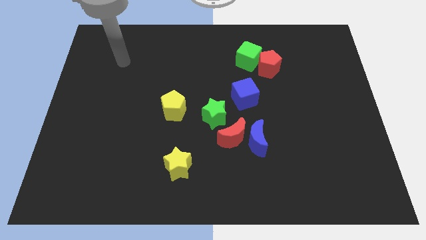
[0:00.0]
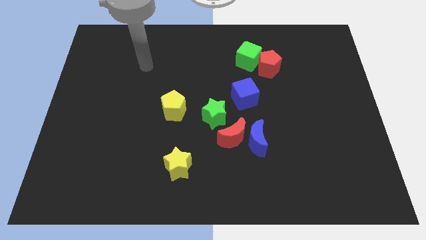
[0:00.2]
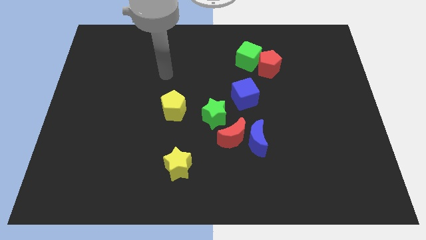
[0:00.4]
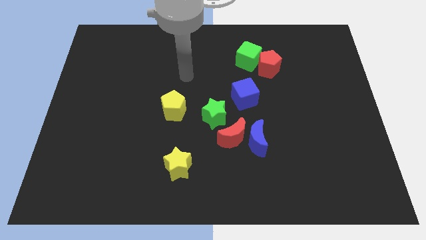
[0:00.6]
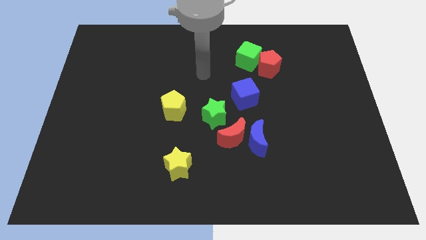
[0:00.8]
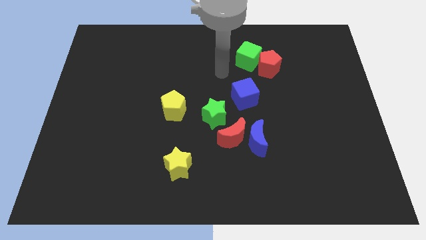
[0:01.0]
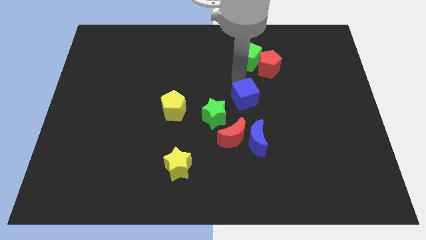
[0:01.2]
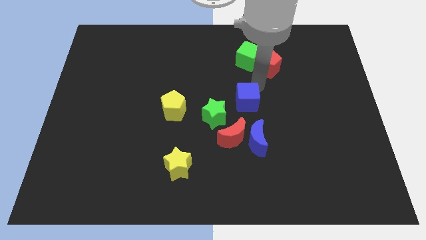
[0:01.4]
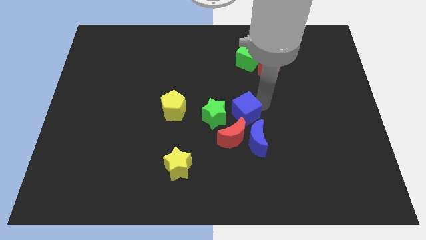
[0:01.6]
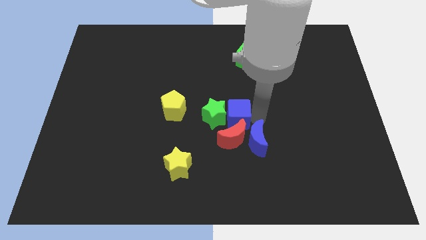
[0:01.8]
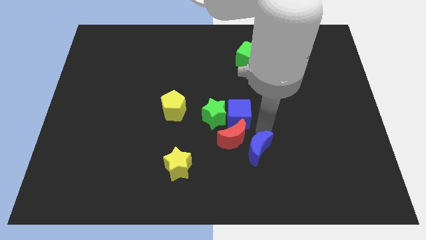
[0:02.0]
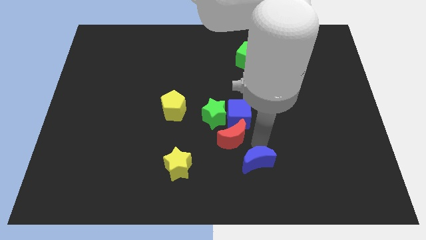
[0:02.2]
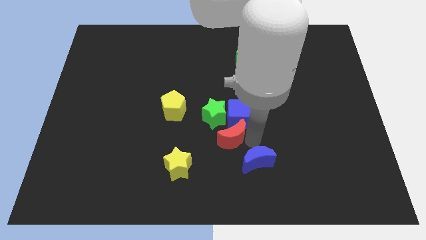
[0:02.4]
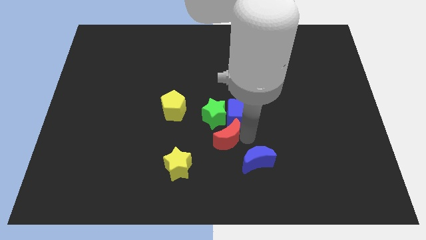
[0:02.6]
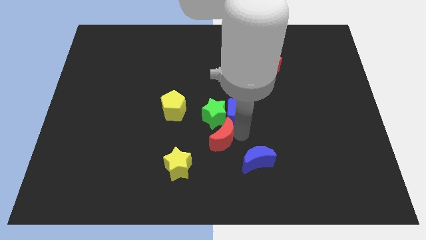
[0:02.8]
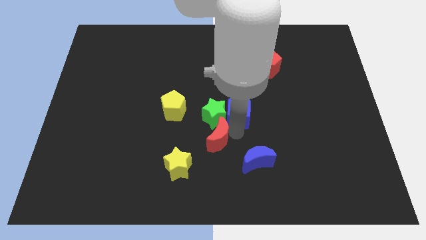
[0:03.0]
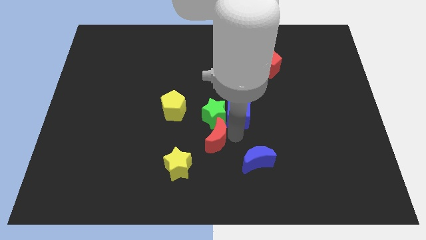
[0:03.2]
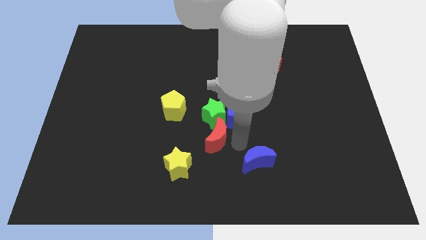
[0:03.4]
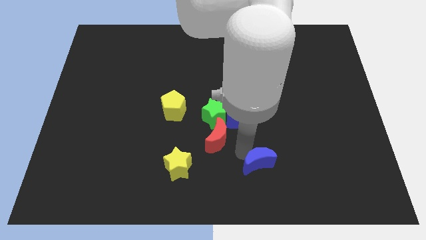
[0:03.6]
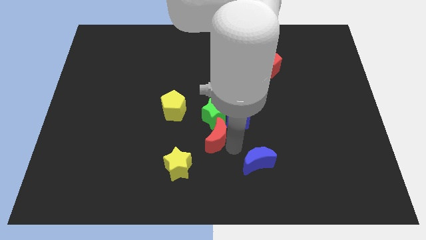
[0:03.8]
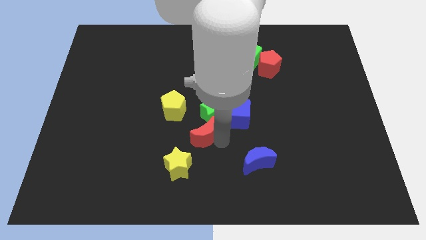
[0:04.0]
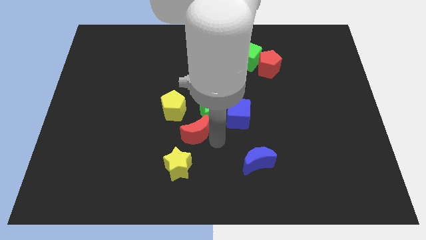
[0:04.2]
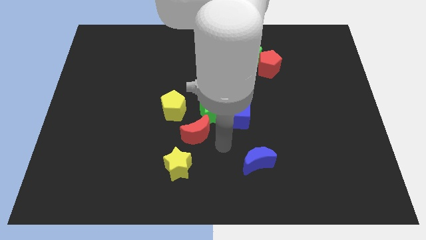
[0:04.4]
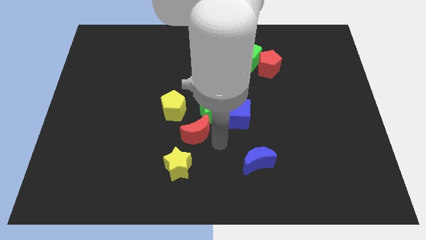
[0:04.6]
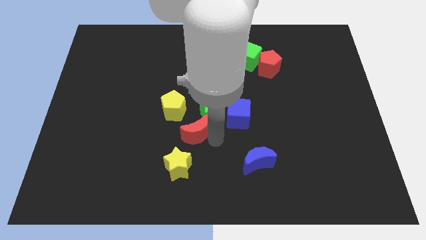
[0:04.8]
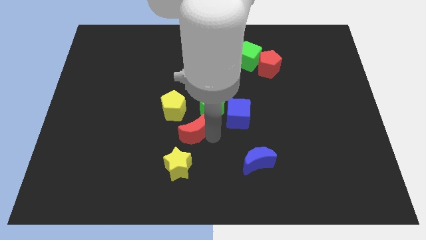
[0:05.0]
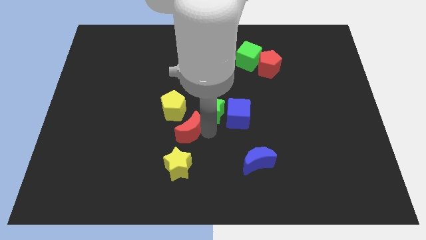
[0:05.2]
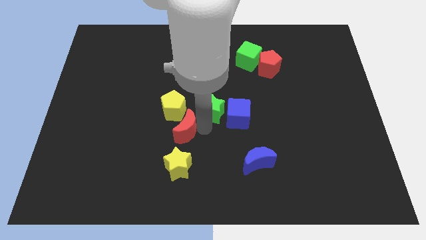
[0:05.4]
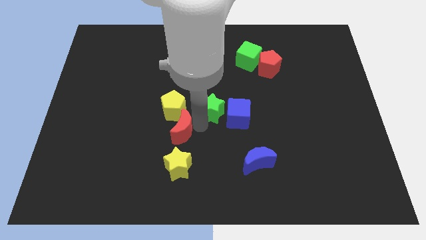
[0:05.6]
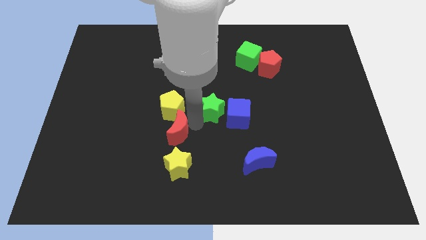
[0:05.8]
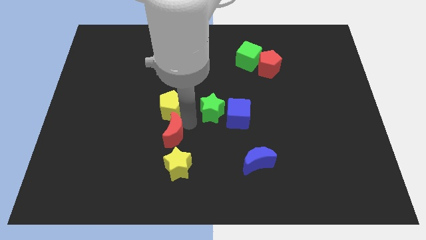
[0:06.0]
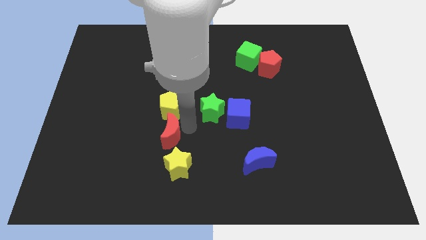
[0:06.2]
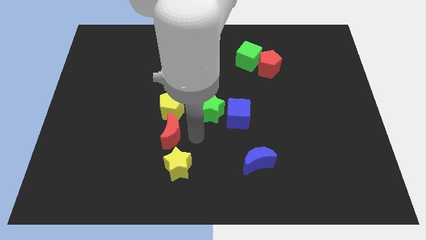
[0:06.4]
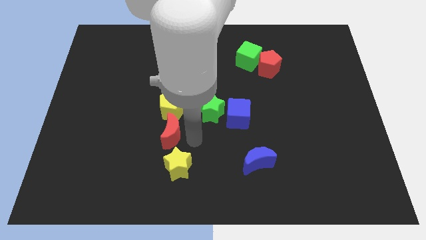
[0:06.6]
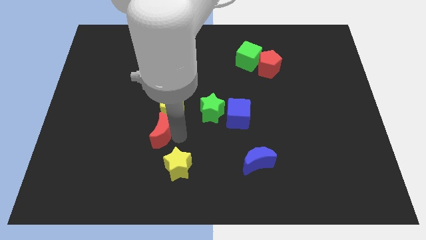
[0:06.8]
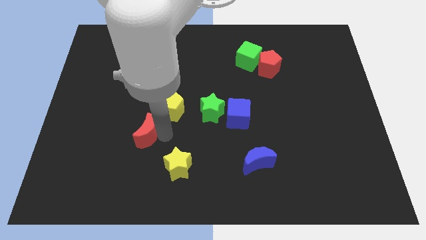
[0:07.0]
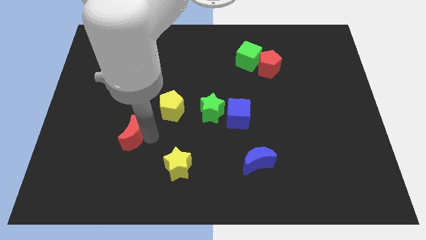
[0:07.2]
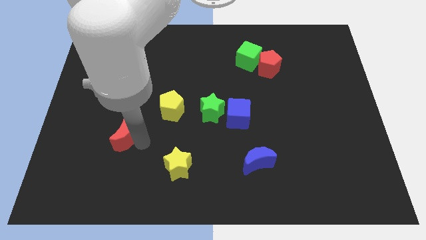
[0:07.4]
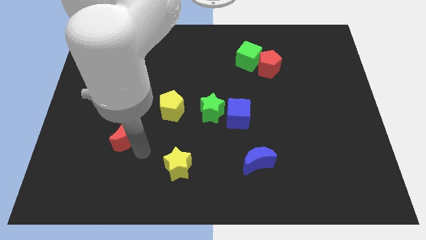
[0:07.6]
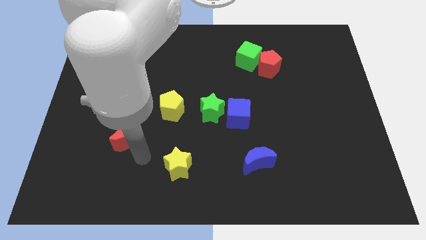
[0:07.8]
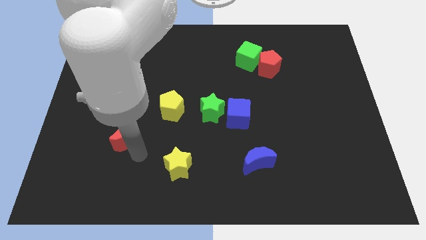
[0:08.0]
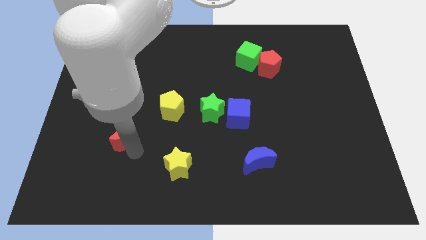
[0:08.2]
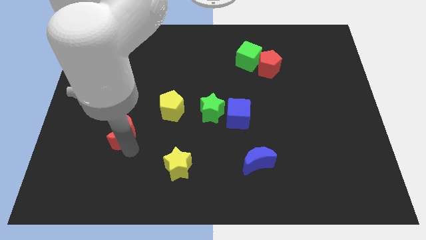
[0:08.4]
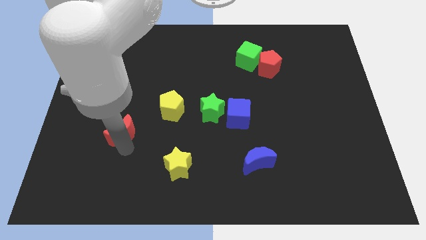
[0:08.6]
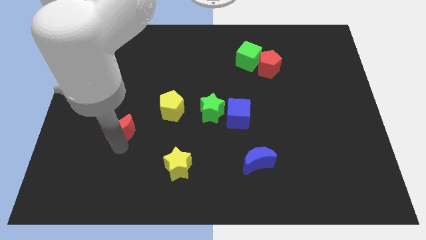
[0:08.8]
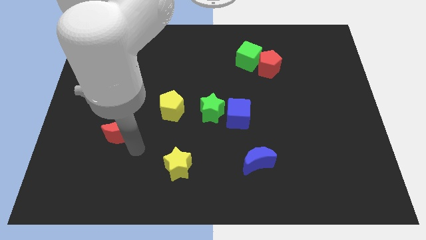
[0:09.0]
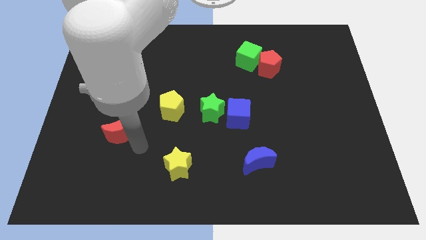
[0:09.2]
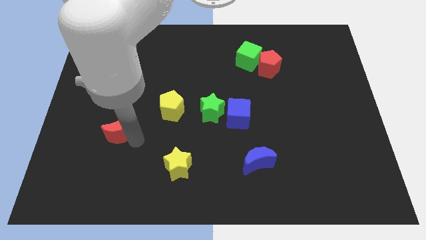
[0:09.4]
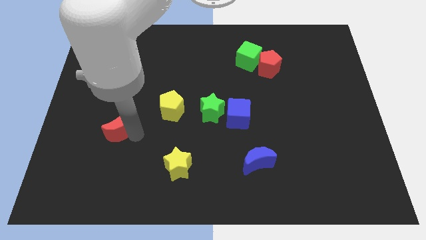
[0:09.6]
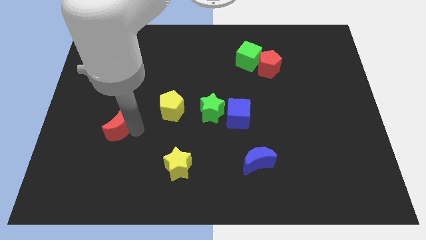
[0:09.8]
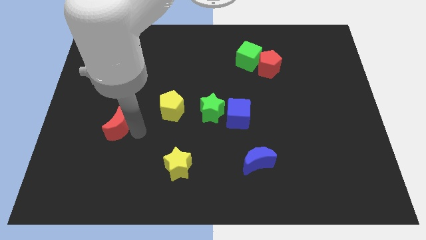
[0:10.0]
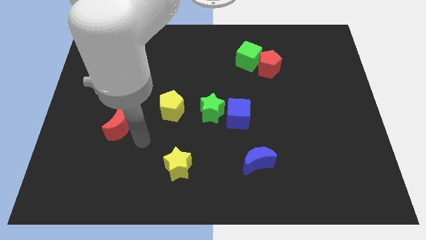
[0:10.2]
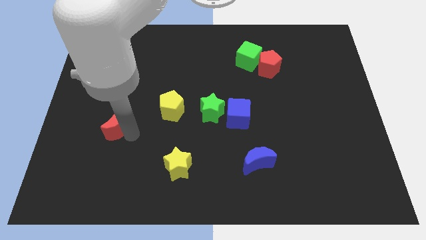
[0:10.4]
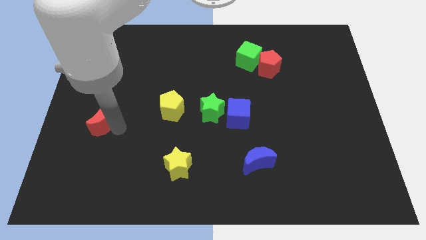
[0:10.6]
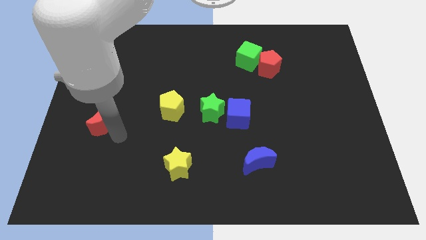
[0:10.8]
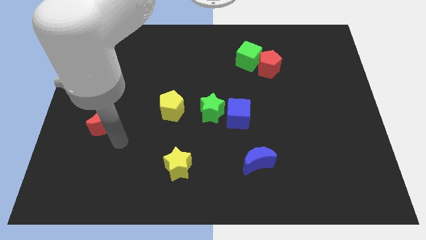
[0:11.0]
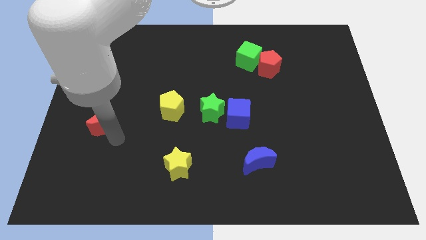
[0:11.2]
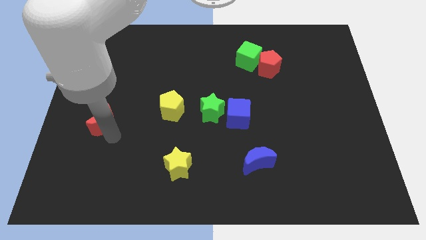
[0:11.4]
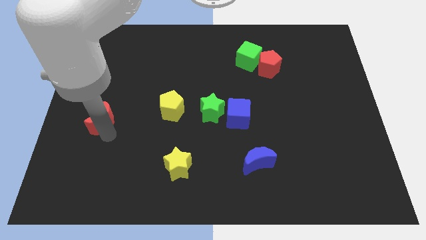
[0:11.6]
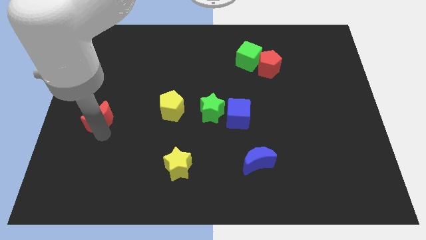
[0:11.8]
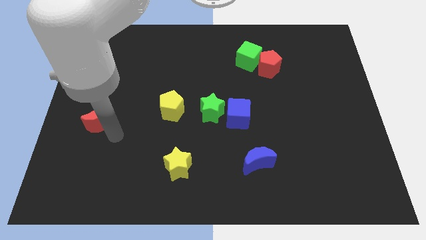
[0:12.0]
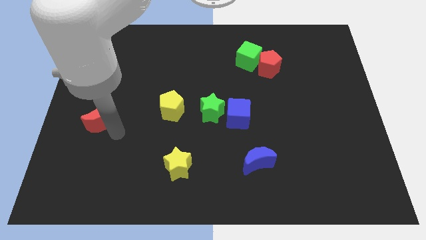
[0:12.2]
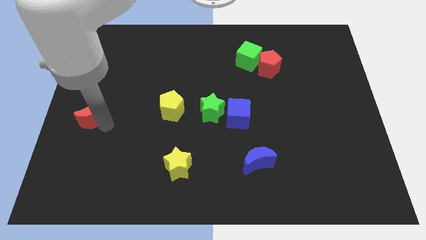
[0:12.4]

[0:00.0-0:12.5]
move the red moon to the center left

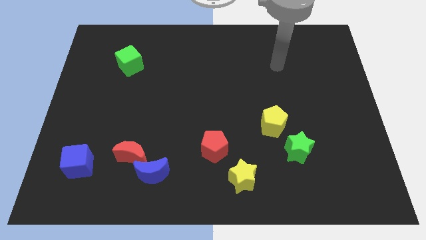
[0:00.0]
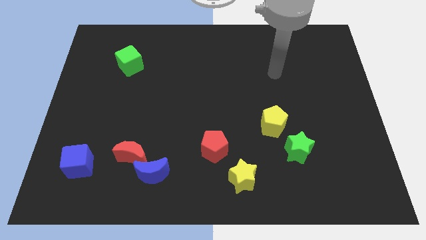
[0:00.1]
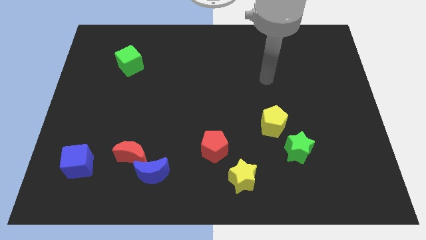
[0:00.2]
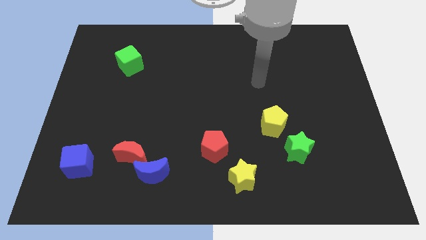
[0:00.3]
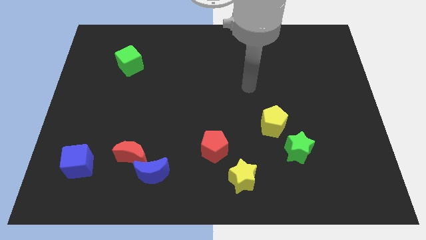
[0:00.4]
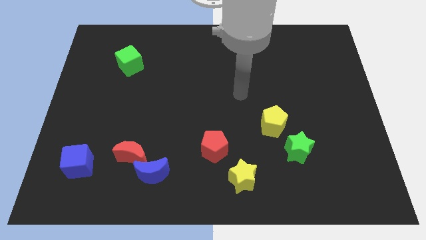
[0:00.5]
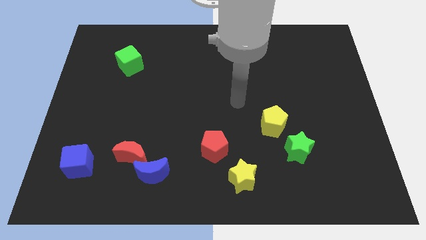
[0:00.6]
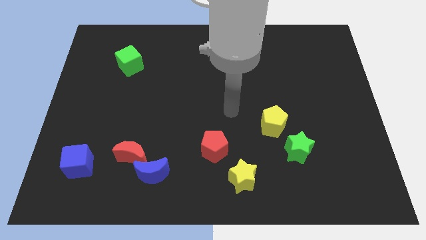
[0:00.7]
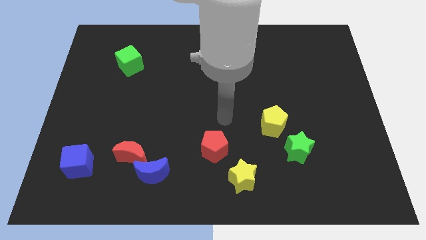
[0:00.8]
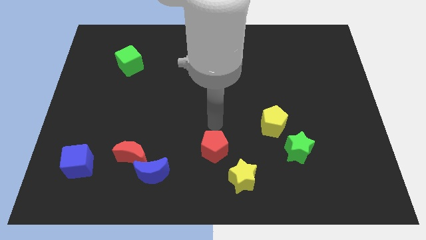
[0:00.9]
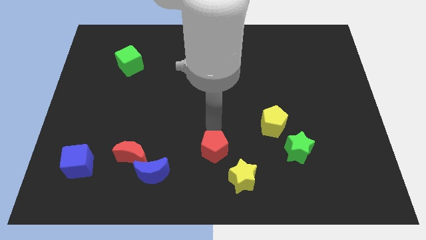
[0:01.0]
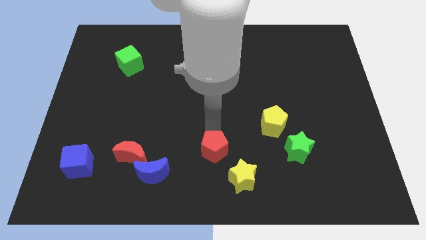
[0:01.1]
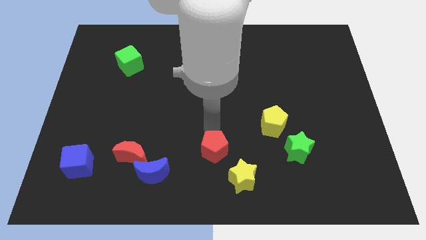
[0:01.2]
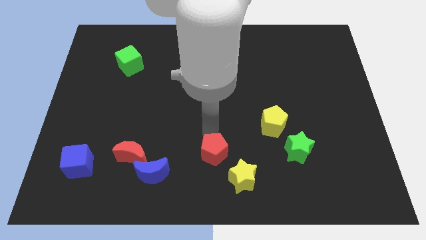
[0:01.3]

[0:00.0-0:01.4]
move the red pentagon to the bottom
